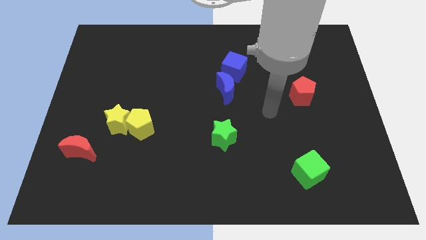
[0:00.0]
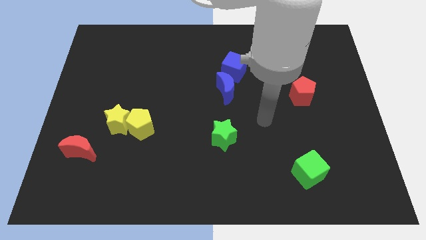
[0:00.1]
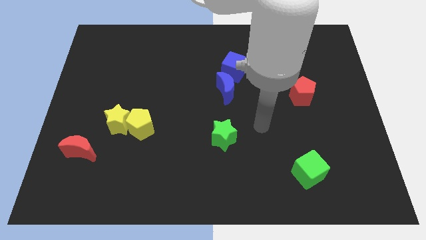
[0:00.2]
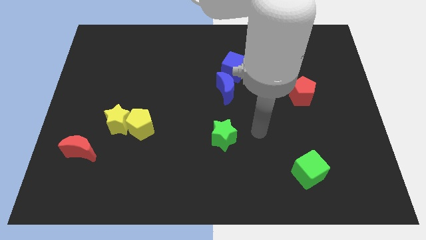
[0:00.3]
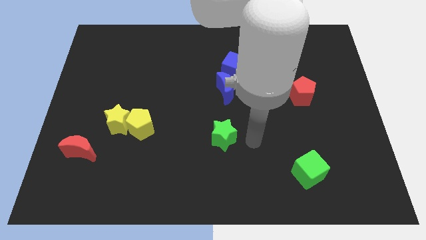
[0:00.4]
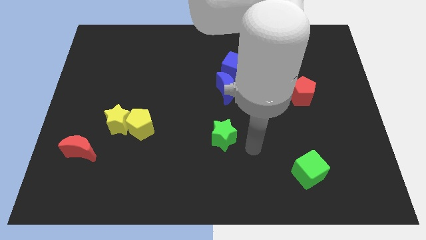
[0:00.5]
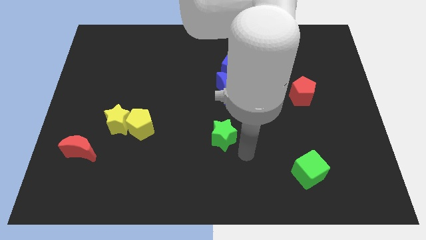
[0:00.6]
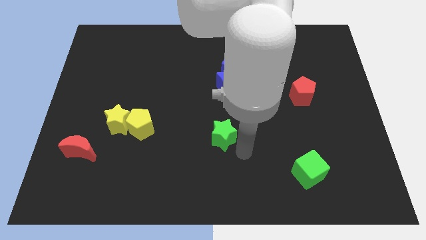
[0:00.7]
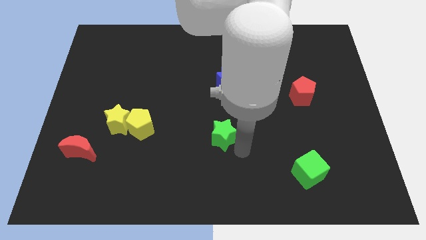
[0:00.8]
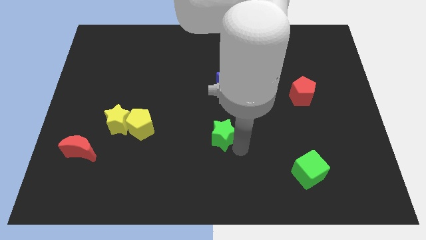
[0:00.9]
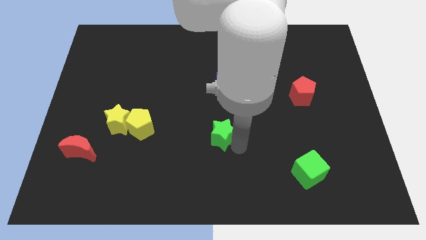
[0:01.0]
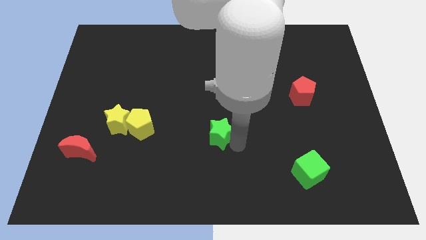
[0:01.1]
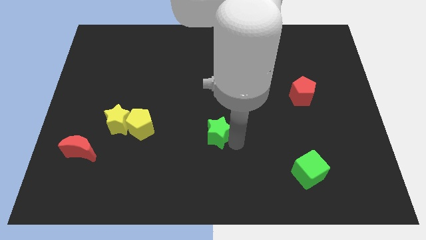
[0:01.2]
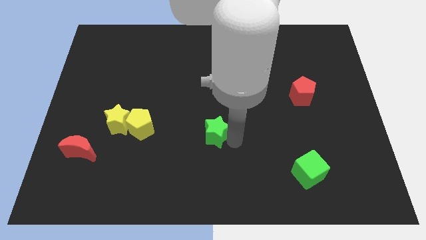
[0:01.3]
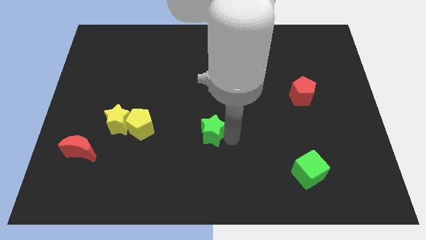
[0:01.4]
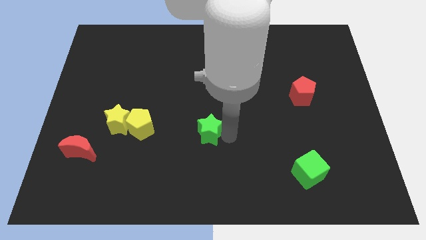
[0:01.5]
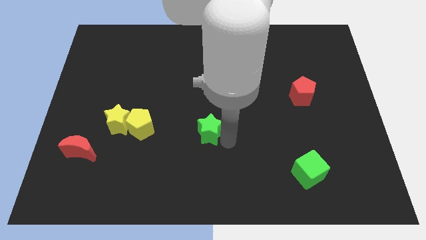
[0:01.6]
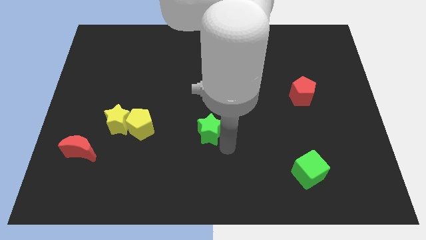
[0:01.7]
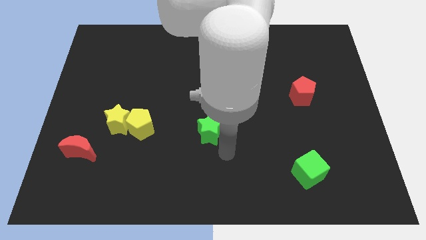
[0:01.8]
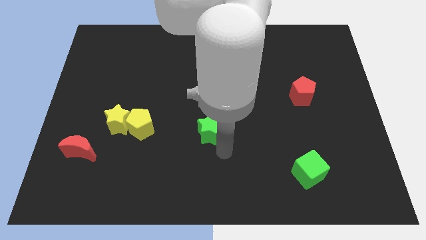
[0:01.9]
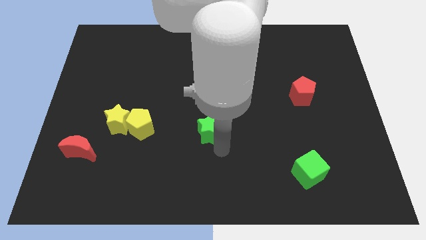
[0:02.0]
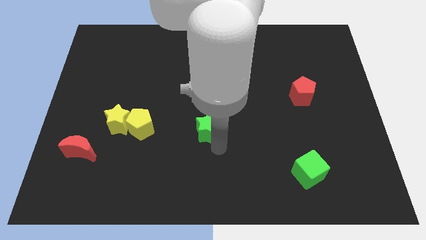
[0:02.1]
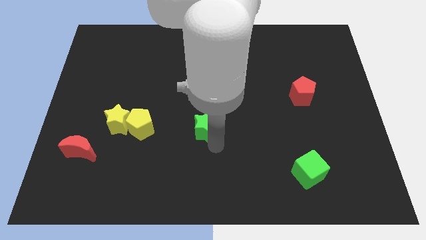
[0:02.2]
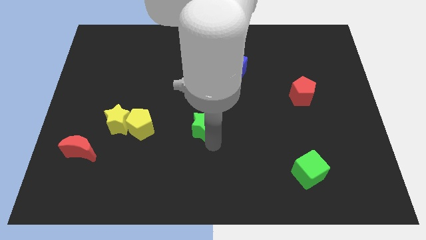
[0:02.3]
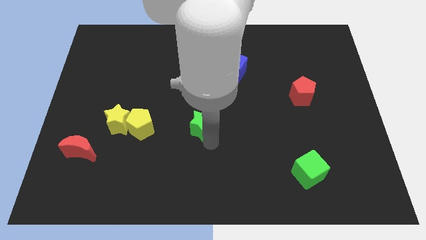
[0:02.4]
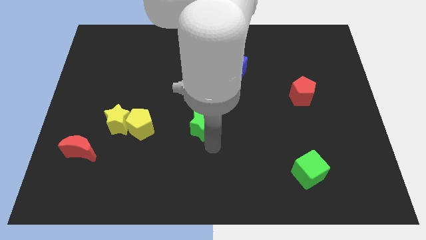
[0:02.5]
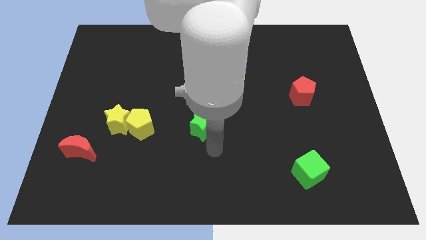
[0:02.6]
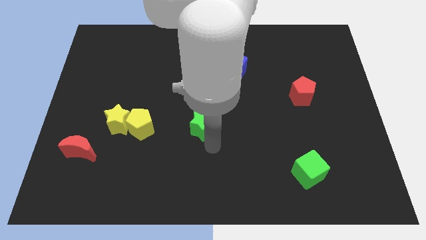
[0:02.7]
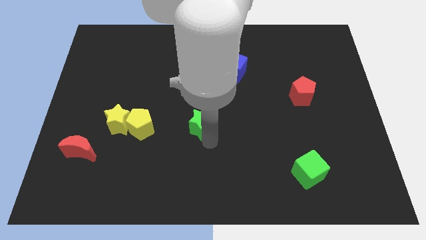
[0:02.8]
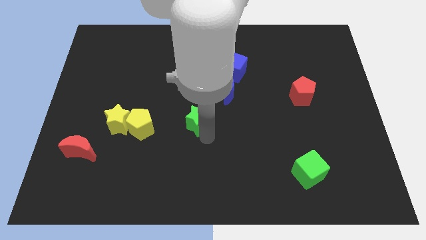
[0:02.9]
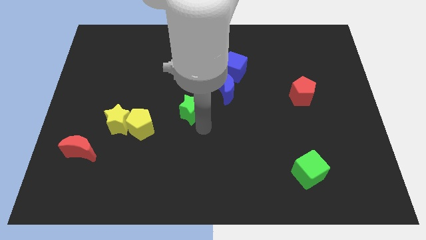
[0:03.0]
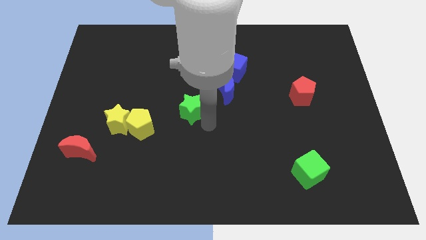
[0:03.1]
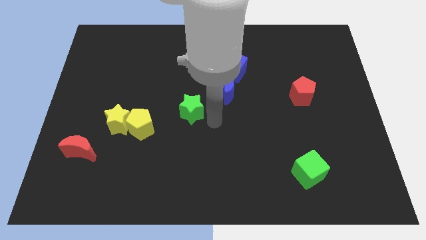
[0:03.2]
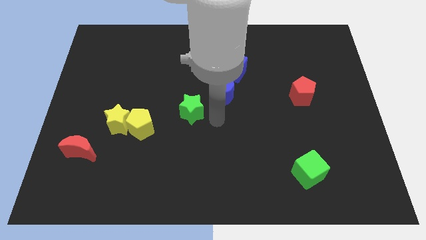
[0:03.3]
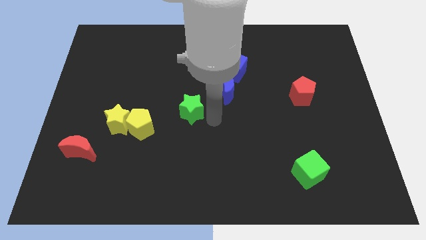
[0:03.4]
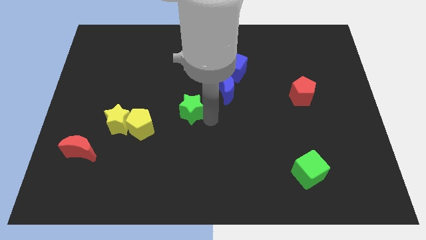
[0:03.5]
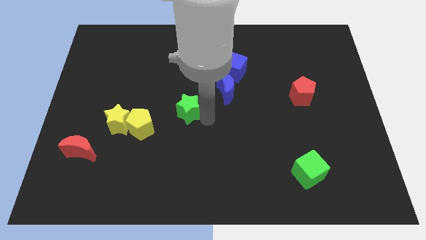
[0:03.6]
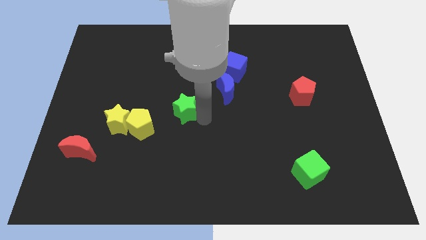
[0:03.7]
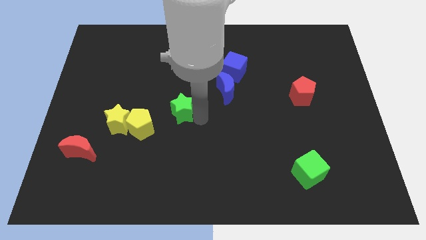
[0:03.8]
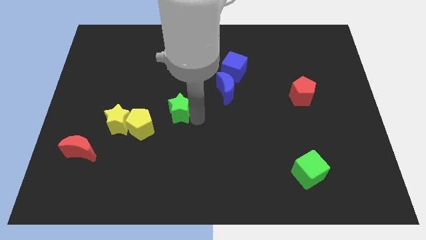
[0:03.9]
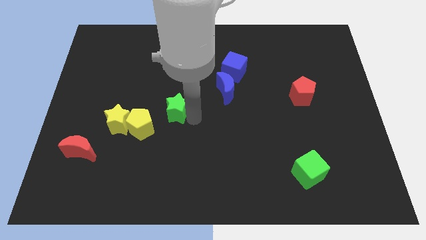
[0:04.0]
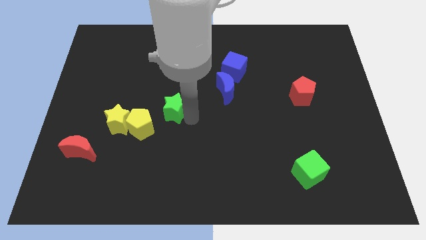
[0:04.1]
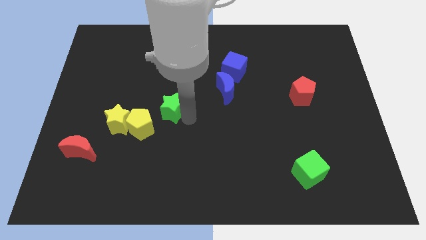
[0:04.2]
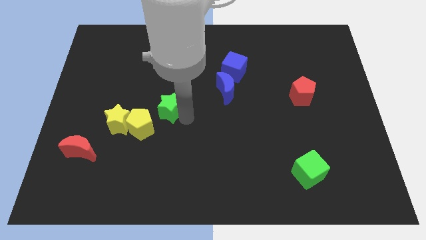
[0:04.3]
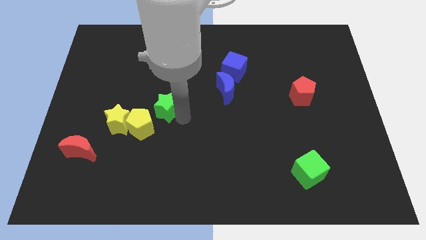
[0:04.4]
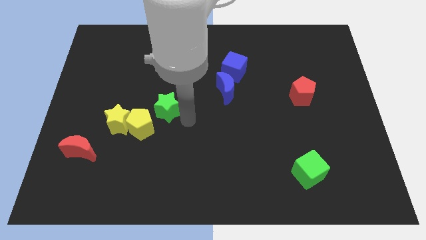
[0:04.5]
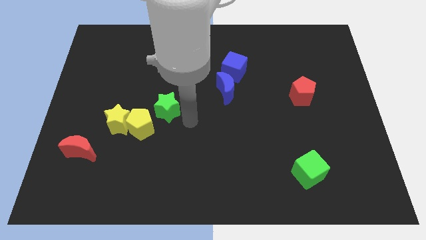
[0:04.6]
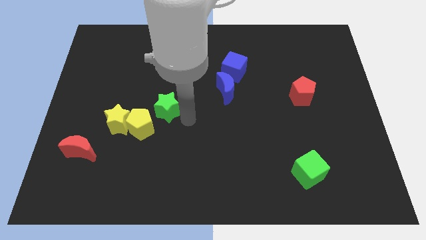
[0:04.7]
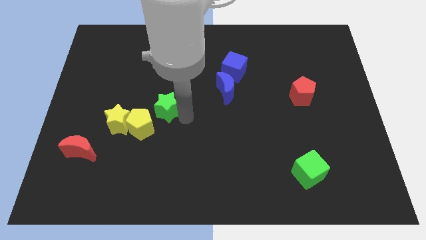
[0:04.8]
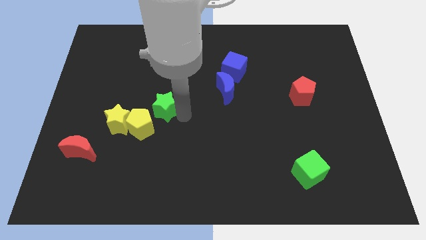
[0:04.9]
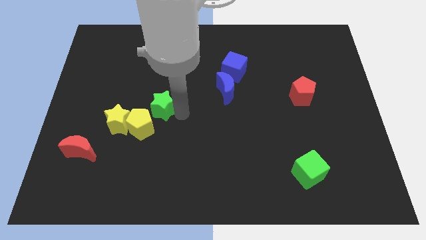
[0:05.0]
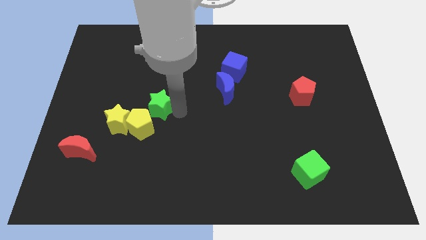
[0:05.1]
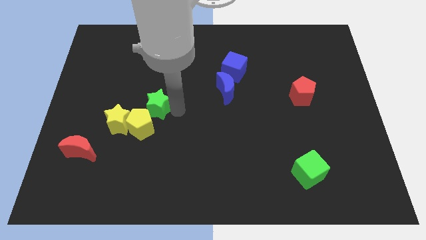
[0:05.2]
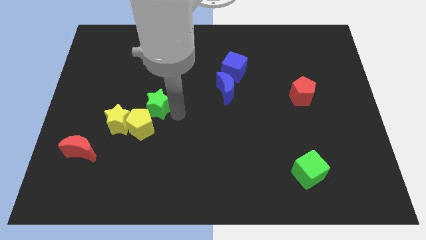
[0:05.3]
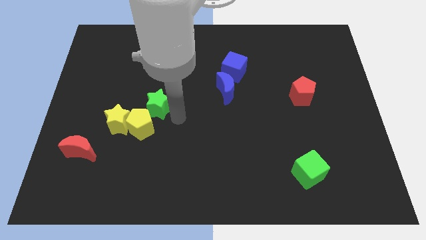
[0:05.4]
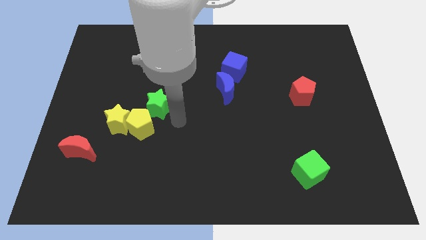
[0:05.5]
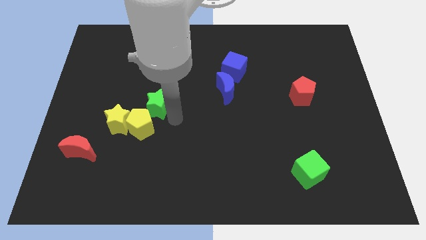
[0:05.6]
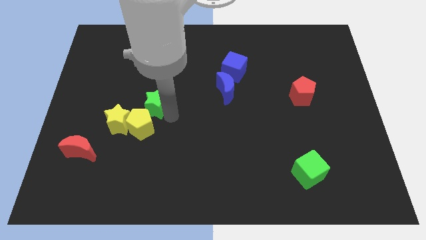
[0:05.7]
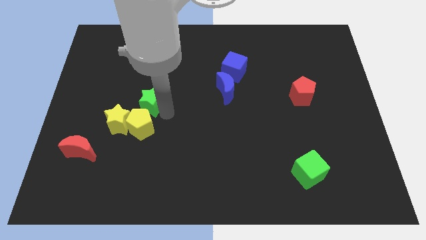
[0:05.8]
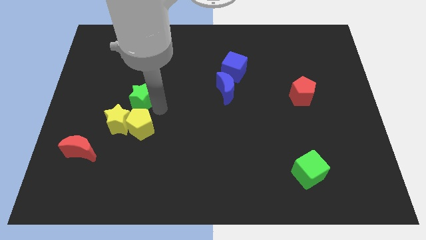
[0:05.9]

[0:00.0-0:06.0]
slide the green star above the yellow star

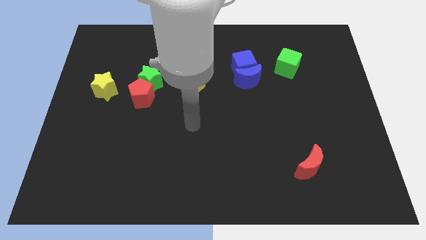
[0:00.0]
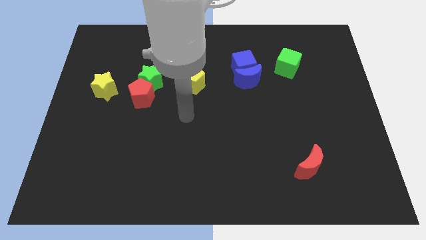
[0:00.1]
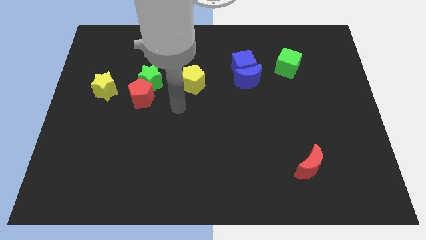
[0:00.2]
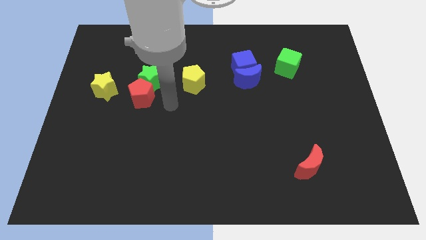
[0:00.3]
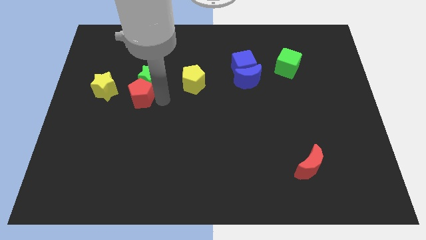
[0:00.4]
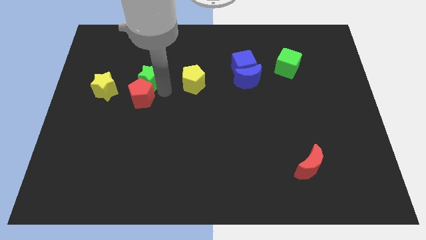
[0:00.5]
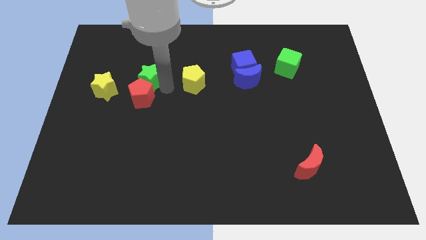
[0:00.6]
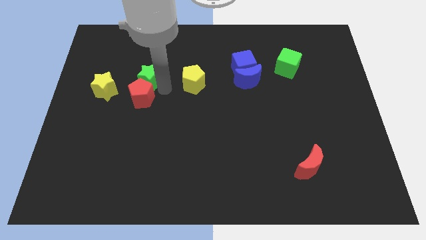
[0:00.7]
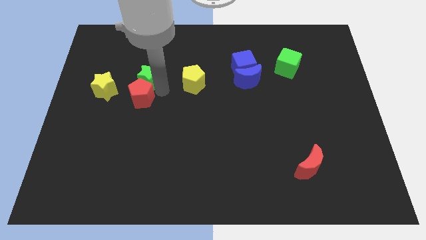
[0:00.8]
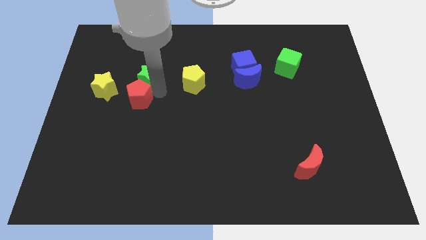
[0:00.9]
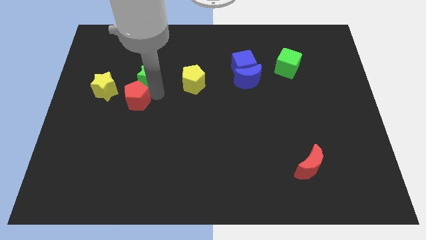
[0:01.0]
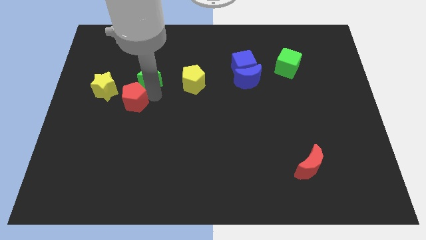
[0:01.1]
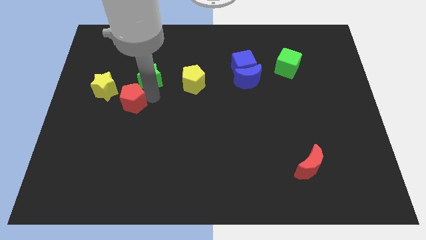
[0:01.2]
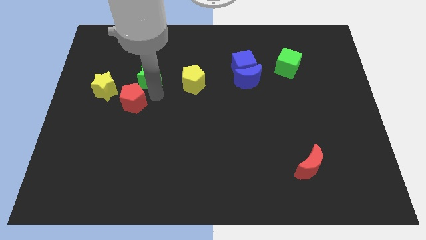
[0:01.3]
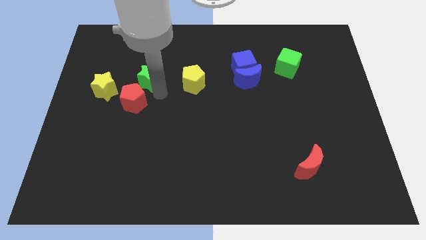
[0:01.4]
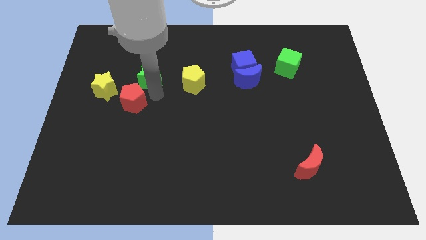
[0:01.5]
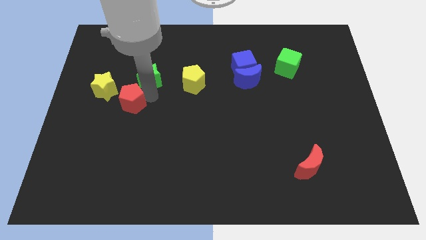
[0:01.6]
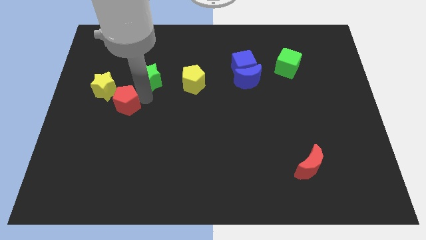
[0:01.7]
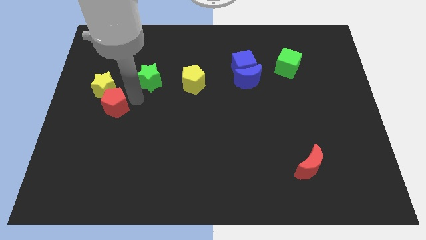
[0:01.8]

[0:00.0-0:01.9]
push the red pentagon to the bottom side of the yellow star
